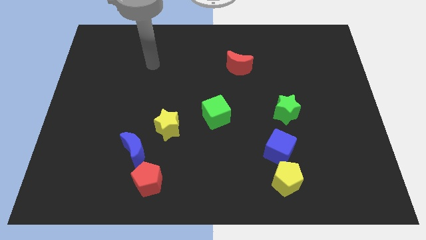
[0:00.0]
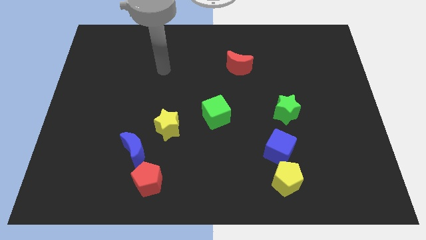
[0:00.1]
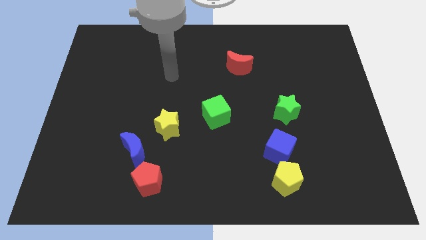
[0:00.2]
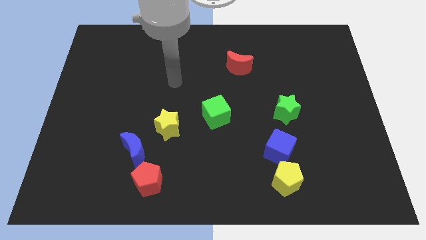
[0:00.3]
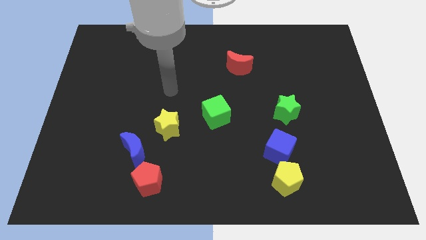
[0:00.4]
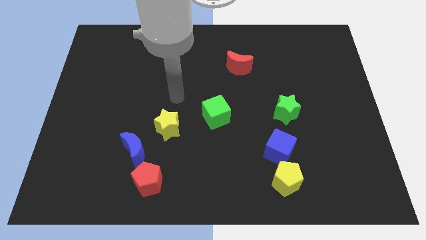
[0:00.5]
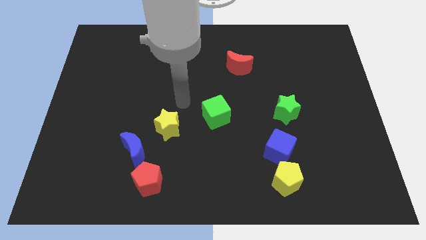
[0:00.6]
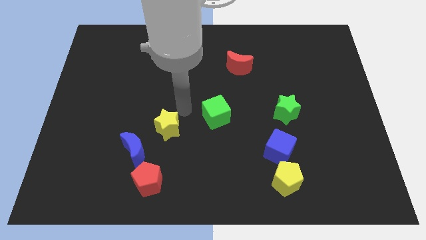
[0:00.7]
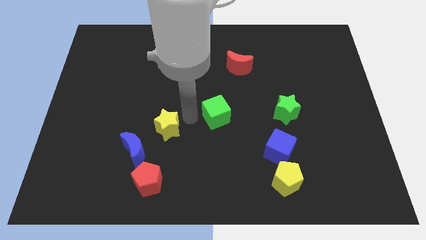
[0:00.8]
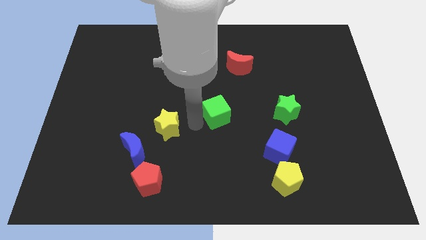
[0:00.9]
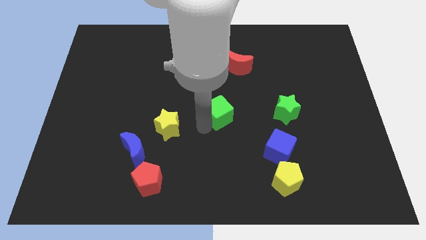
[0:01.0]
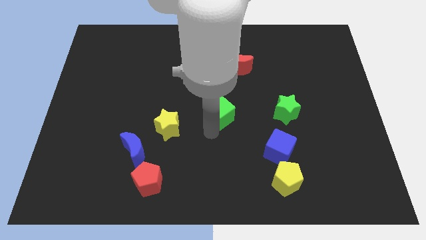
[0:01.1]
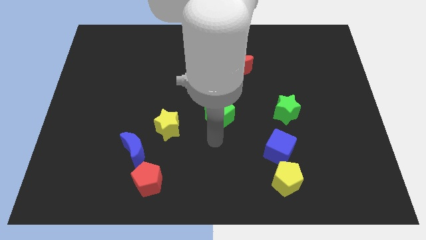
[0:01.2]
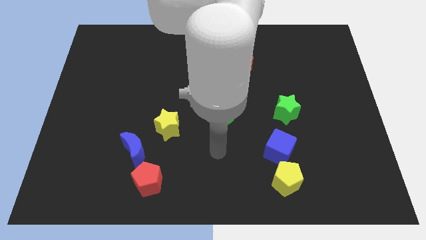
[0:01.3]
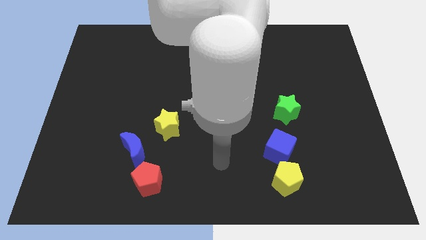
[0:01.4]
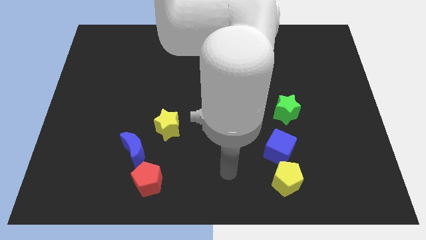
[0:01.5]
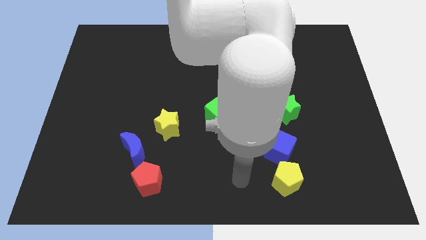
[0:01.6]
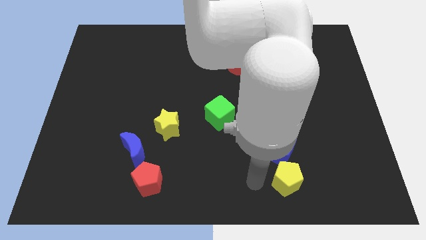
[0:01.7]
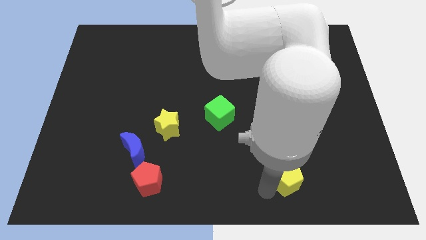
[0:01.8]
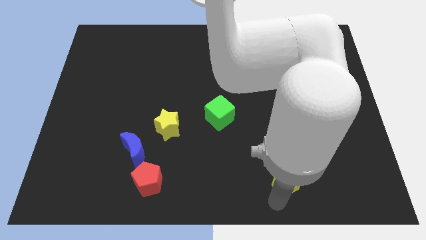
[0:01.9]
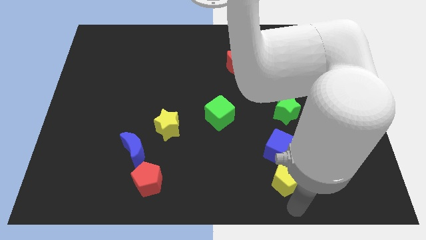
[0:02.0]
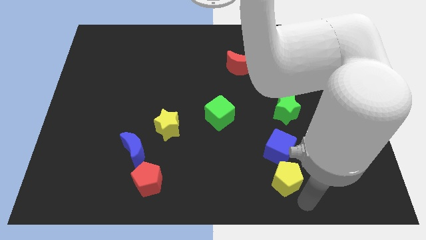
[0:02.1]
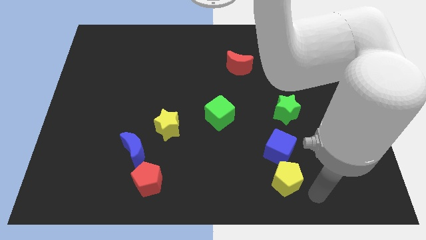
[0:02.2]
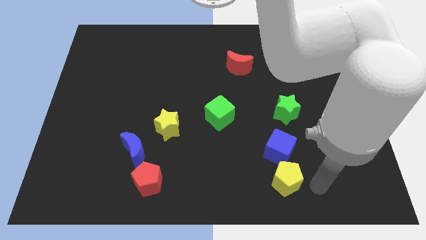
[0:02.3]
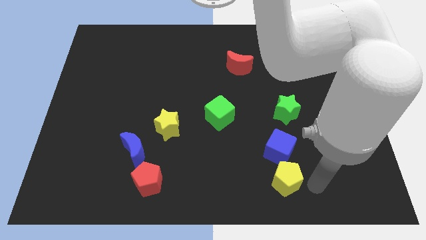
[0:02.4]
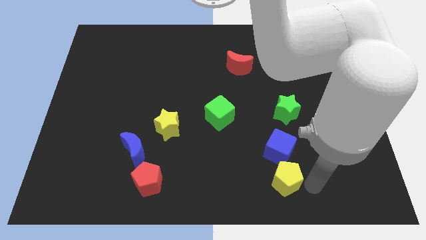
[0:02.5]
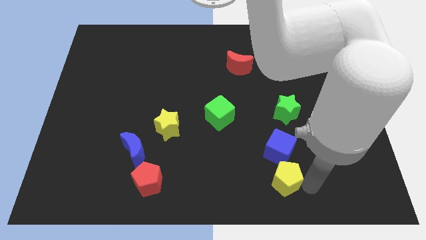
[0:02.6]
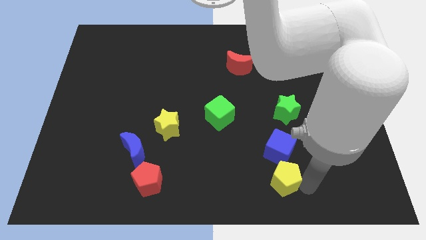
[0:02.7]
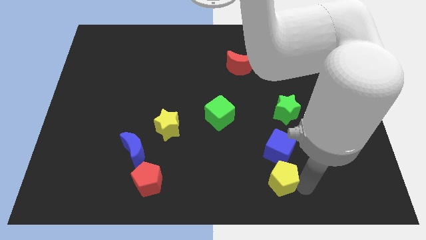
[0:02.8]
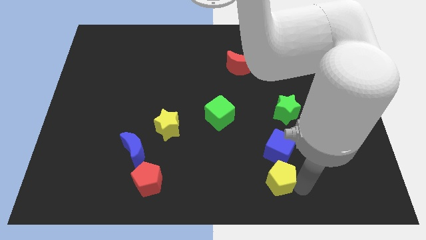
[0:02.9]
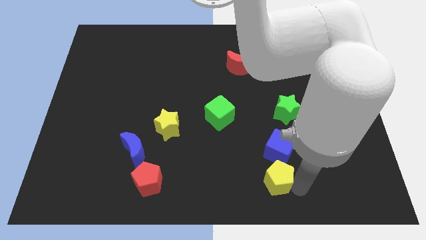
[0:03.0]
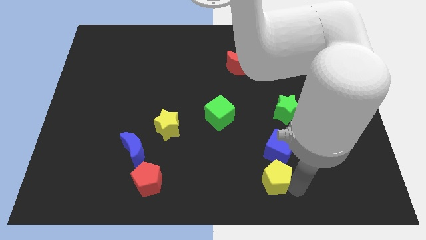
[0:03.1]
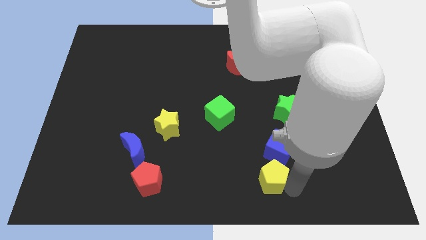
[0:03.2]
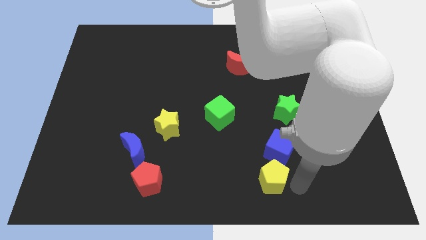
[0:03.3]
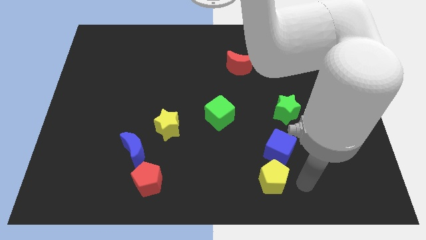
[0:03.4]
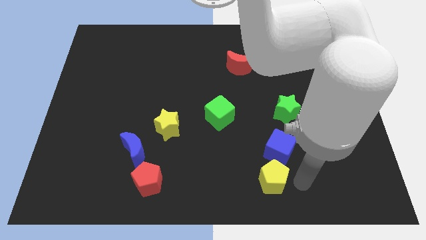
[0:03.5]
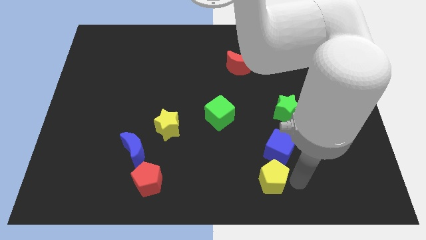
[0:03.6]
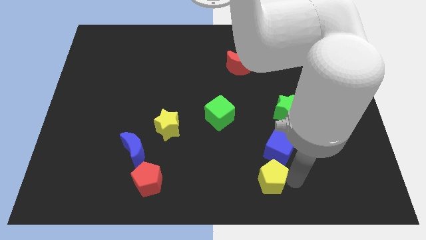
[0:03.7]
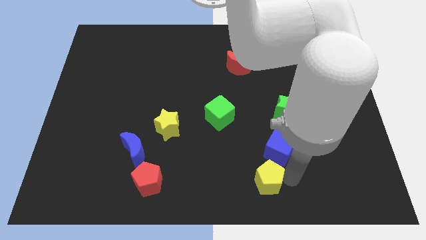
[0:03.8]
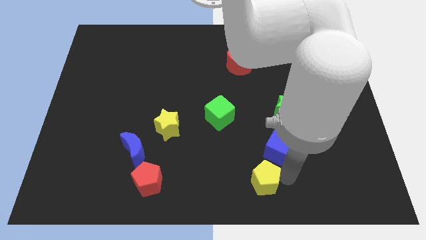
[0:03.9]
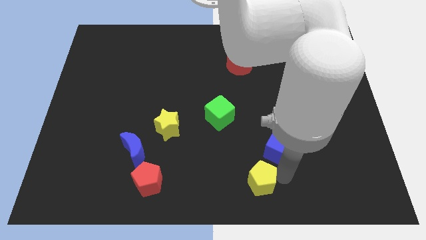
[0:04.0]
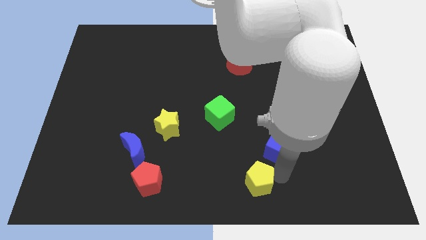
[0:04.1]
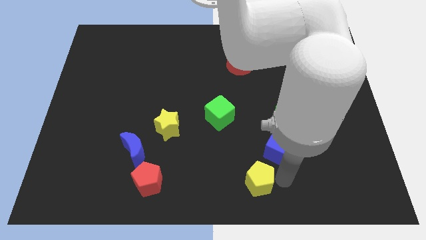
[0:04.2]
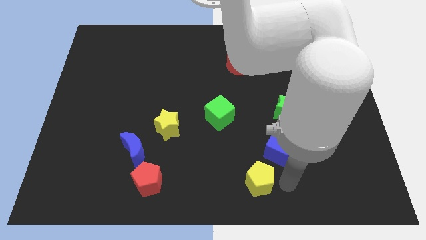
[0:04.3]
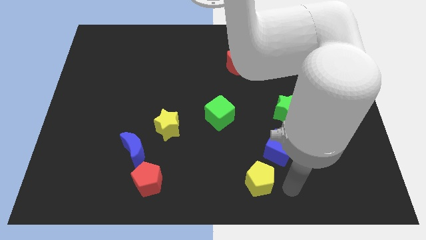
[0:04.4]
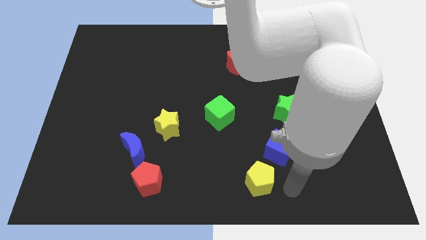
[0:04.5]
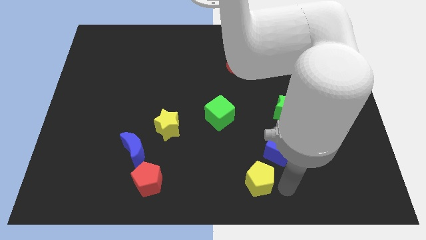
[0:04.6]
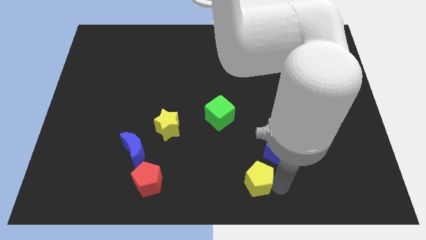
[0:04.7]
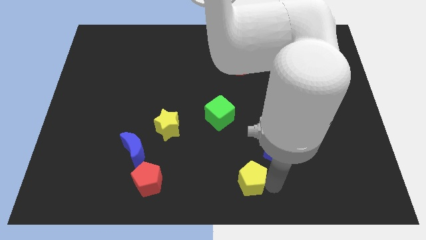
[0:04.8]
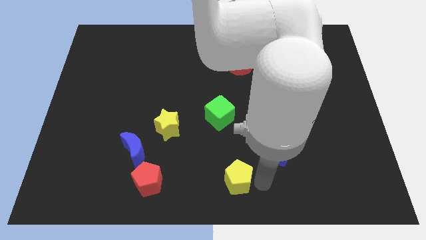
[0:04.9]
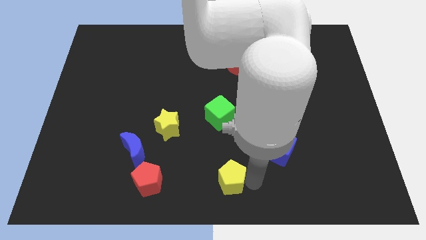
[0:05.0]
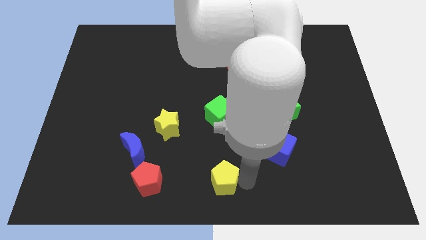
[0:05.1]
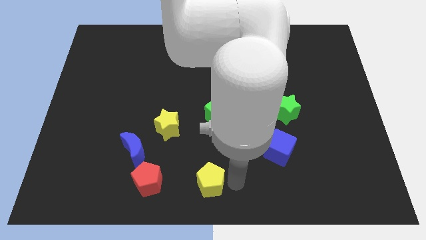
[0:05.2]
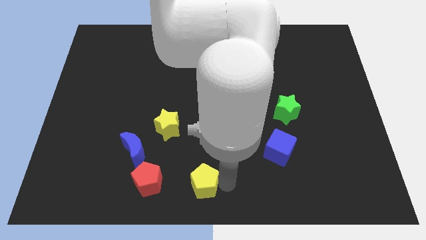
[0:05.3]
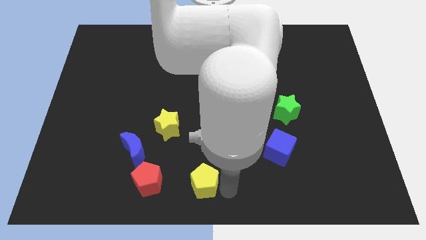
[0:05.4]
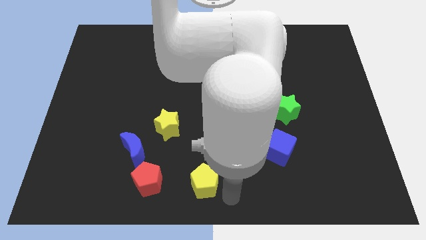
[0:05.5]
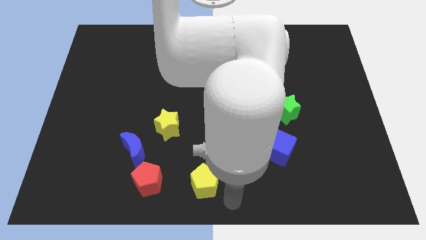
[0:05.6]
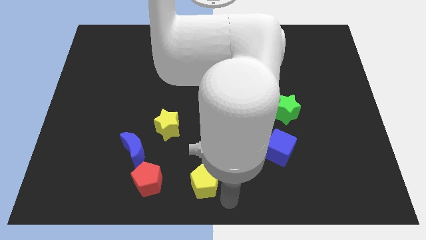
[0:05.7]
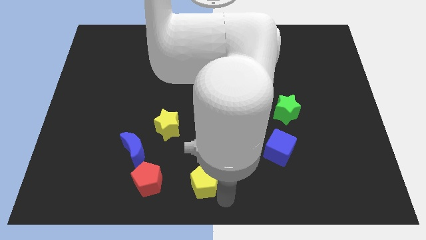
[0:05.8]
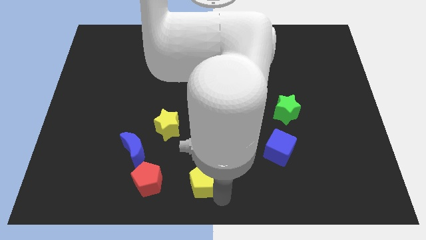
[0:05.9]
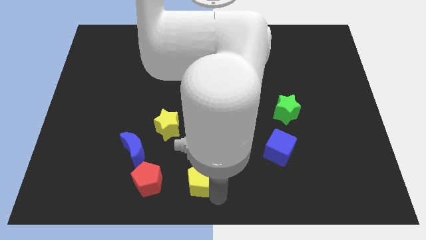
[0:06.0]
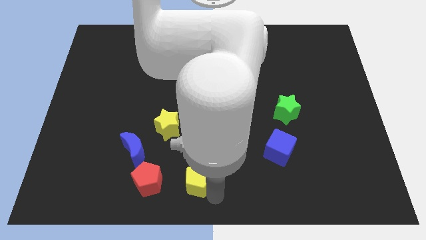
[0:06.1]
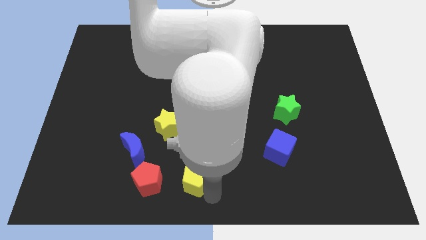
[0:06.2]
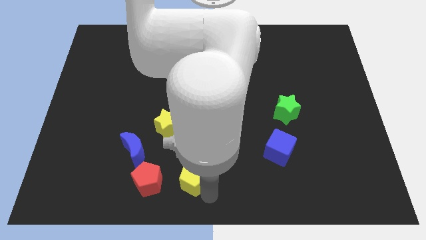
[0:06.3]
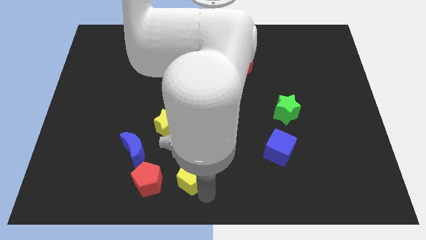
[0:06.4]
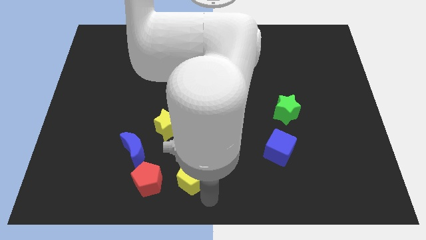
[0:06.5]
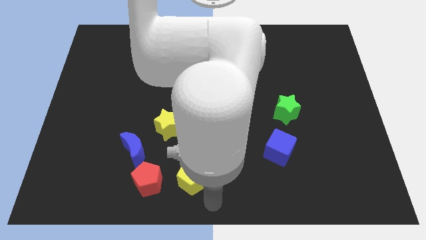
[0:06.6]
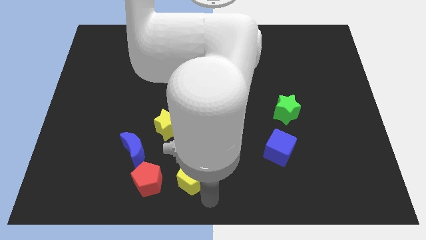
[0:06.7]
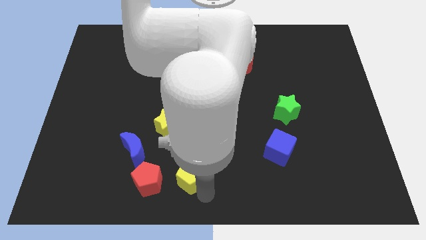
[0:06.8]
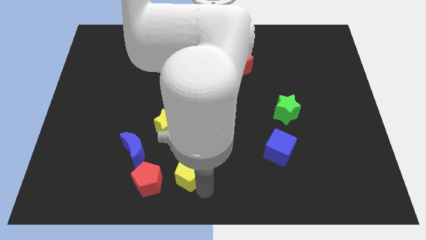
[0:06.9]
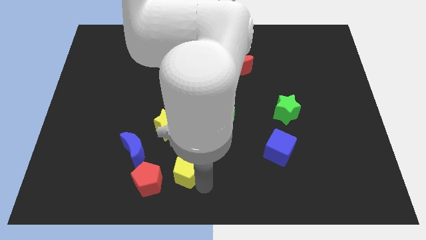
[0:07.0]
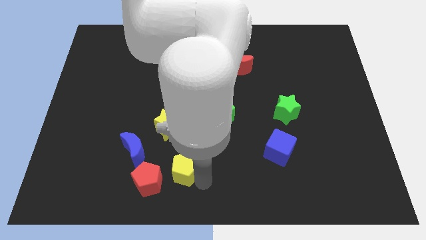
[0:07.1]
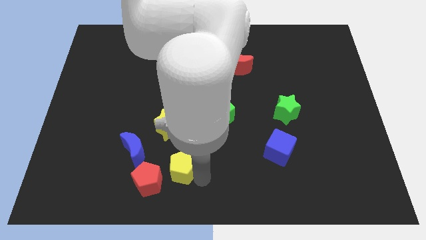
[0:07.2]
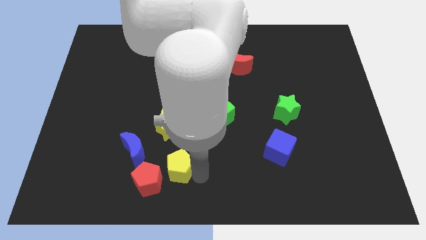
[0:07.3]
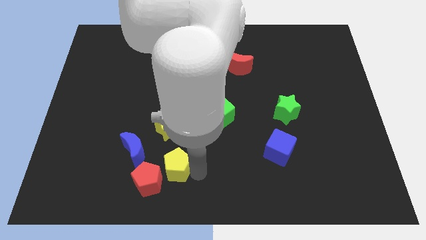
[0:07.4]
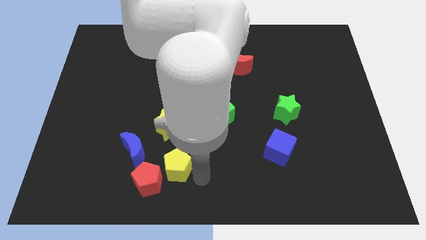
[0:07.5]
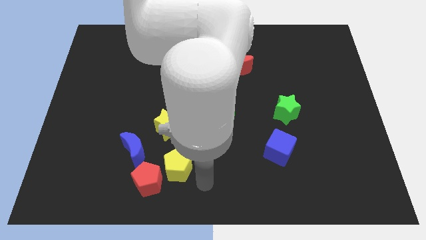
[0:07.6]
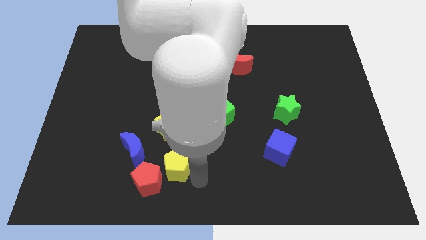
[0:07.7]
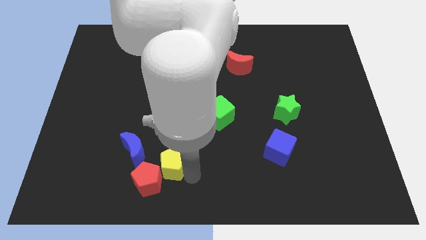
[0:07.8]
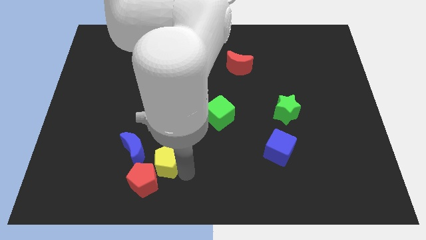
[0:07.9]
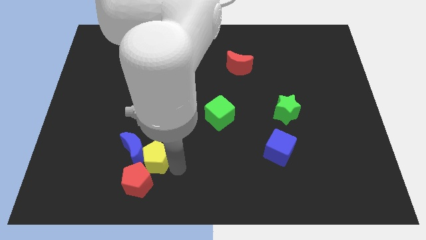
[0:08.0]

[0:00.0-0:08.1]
move the yellow pentagon towards the blue moon
